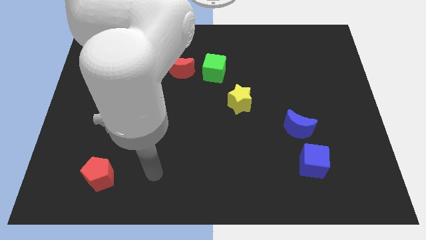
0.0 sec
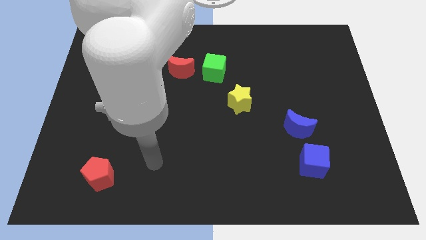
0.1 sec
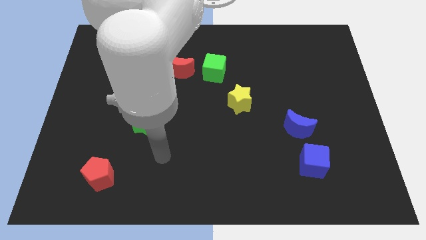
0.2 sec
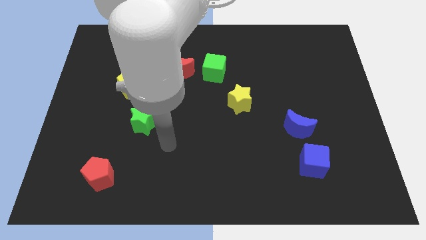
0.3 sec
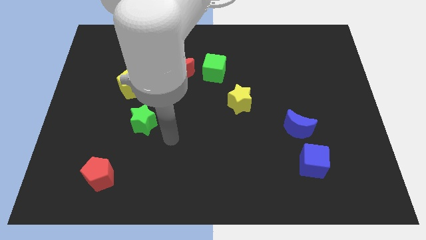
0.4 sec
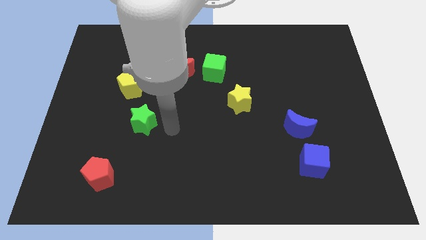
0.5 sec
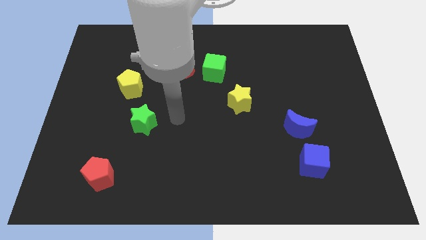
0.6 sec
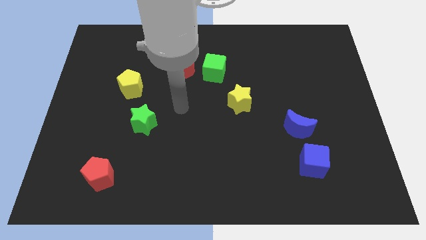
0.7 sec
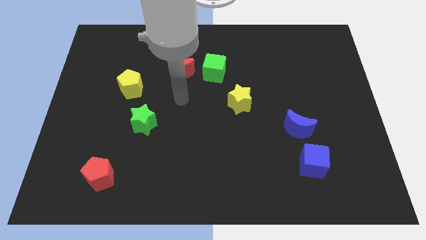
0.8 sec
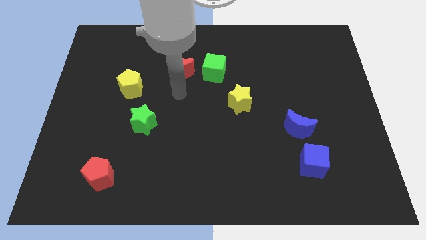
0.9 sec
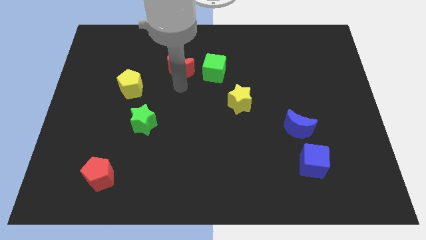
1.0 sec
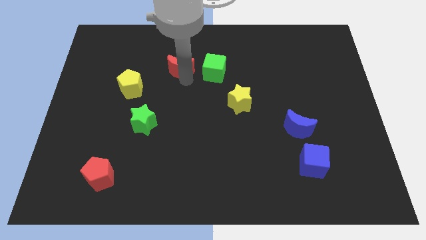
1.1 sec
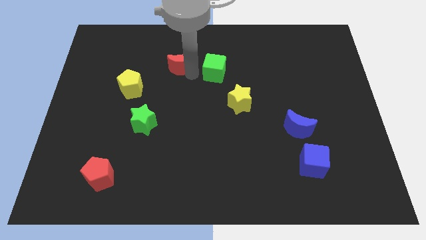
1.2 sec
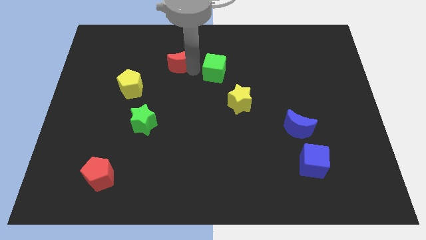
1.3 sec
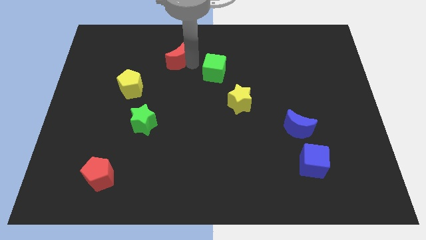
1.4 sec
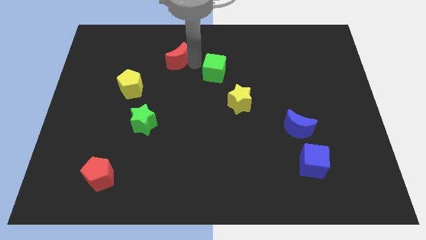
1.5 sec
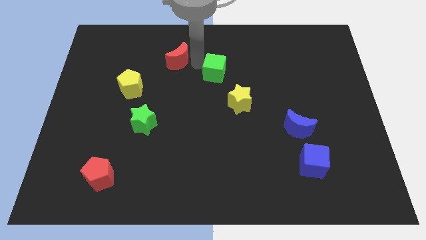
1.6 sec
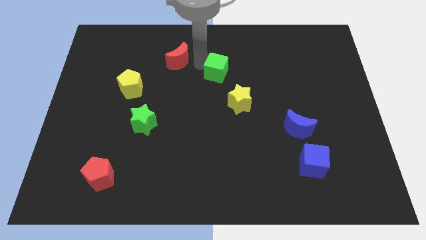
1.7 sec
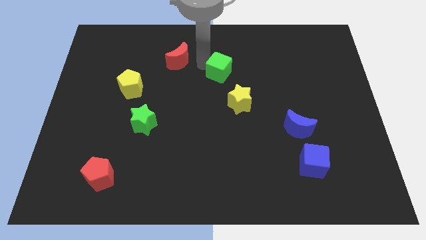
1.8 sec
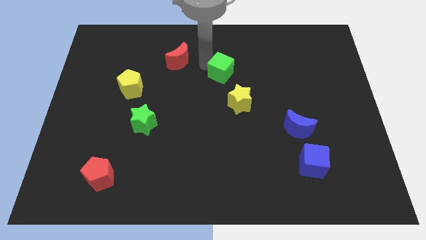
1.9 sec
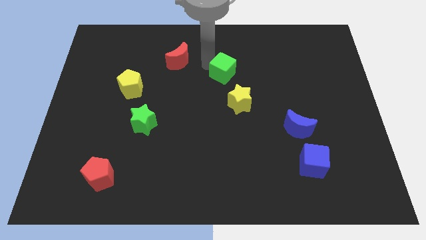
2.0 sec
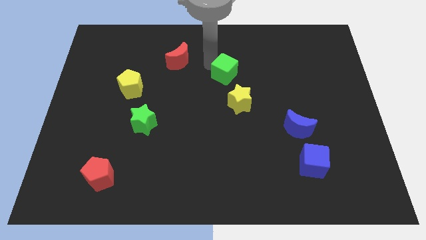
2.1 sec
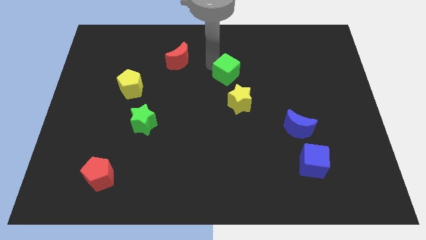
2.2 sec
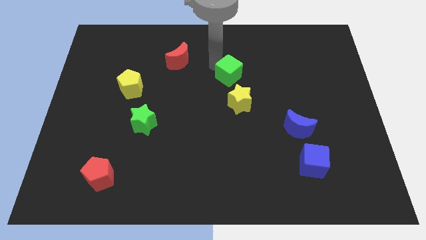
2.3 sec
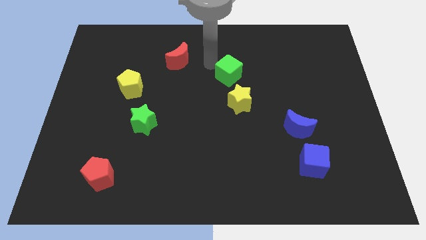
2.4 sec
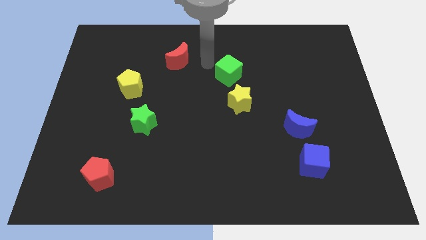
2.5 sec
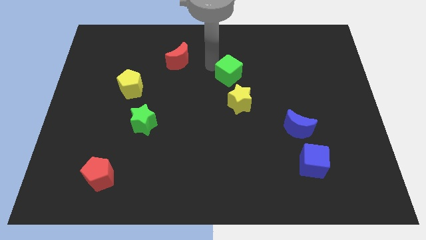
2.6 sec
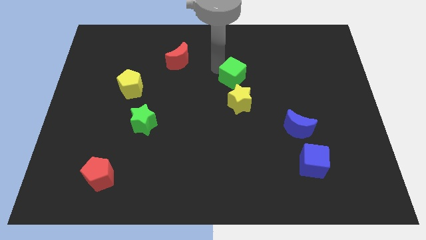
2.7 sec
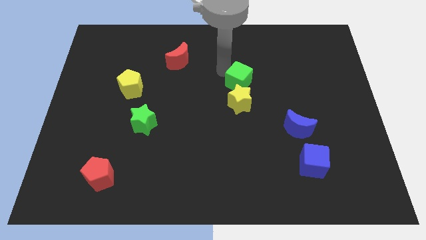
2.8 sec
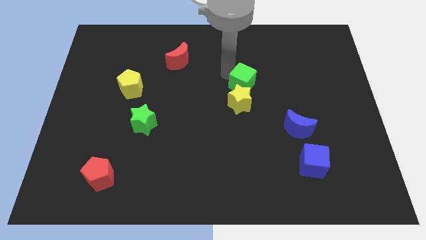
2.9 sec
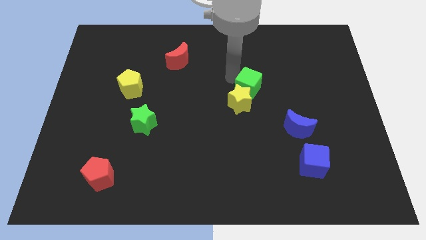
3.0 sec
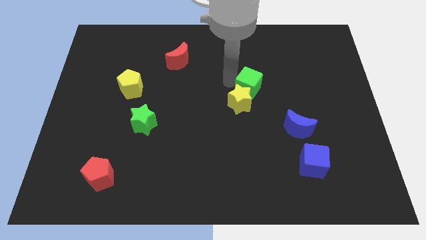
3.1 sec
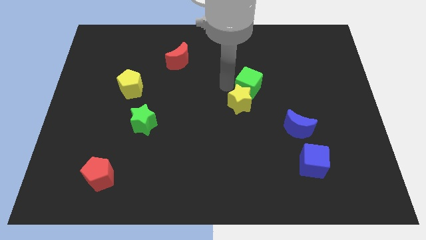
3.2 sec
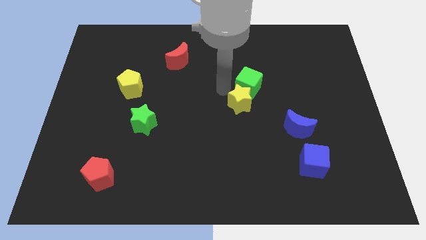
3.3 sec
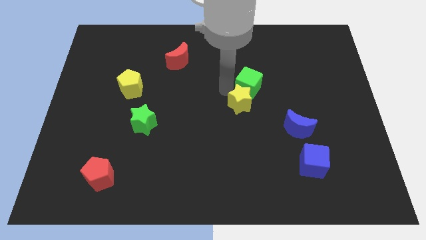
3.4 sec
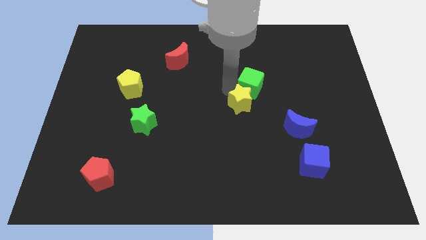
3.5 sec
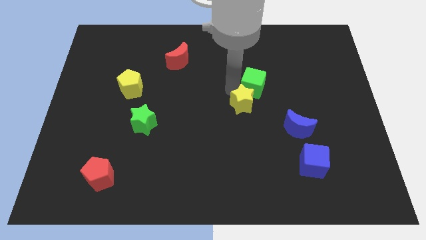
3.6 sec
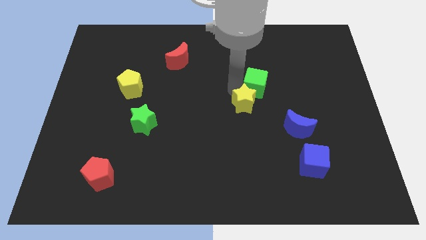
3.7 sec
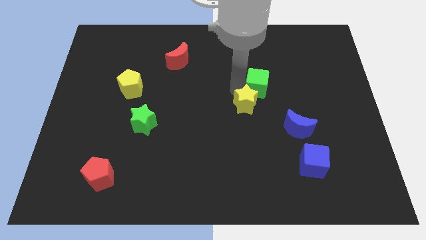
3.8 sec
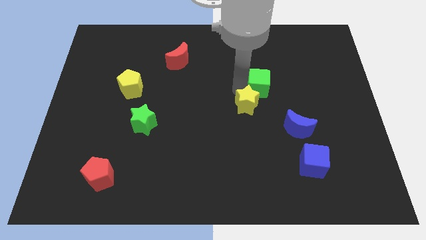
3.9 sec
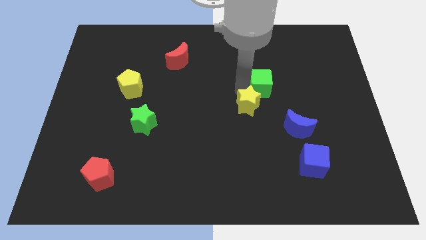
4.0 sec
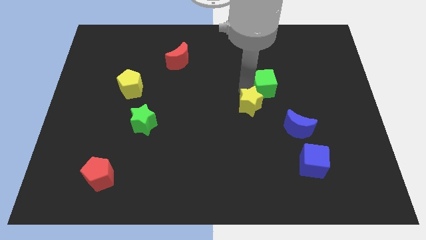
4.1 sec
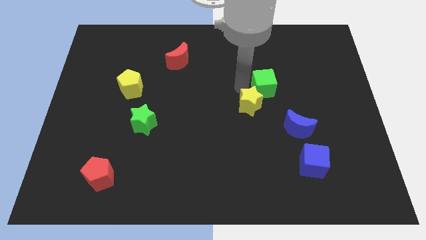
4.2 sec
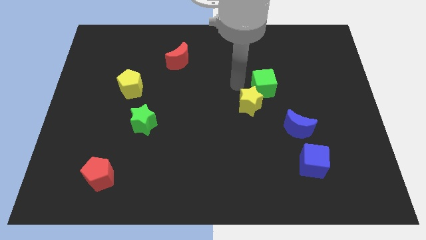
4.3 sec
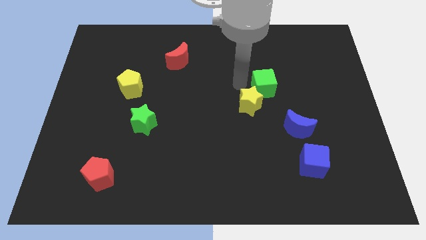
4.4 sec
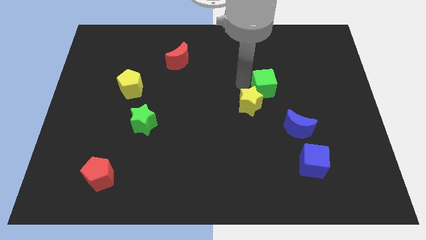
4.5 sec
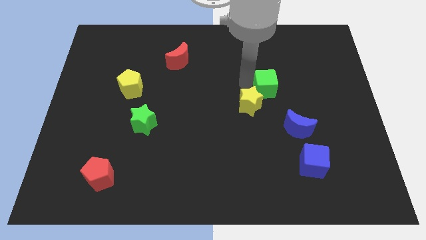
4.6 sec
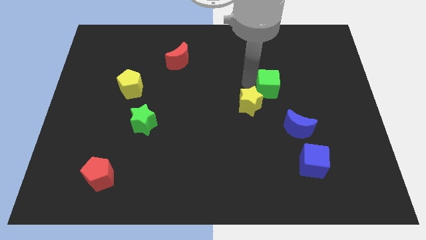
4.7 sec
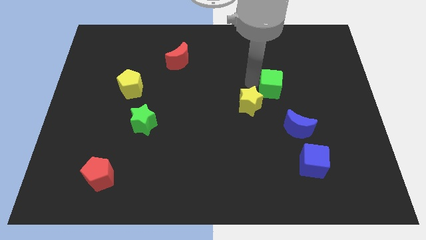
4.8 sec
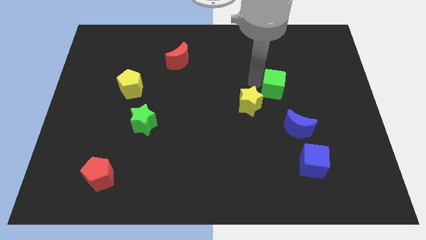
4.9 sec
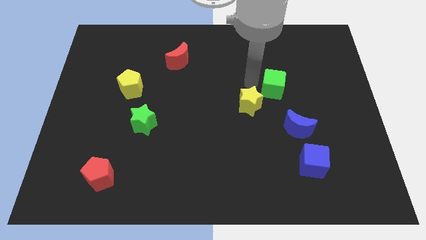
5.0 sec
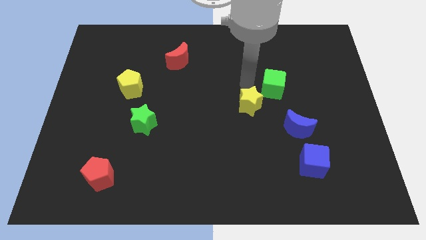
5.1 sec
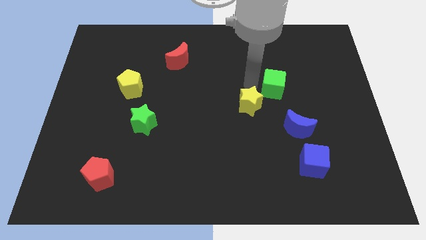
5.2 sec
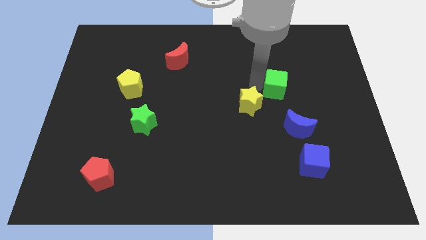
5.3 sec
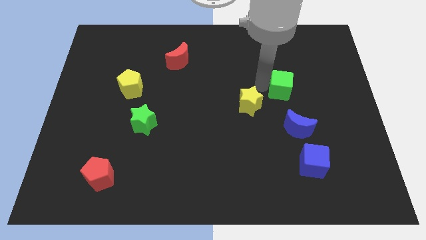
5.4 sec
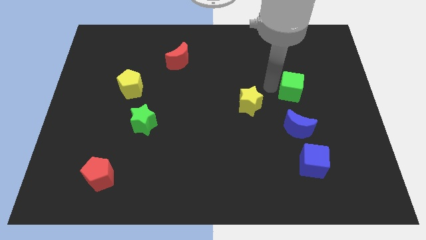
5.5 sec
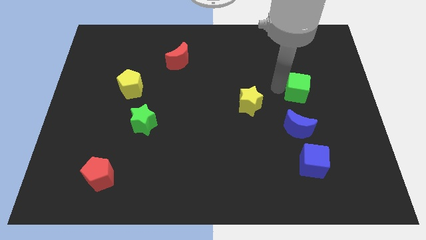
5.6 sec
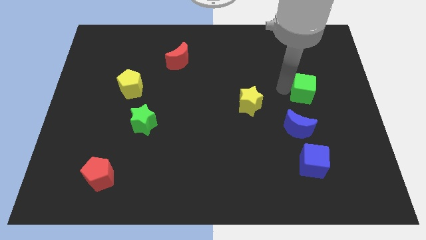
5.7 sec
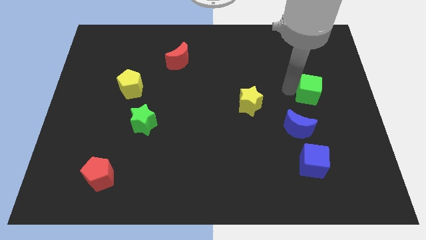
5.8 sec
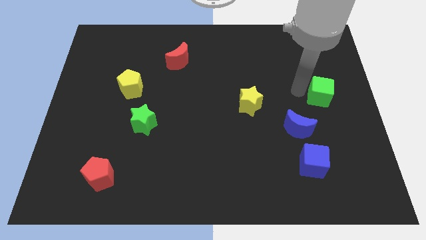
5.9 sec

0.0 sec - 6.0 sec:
push the green cube to the center right

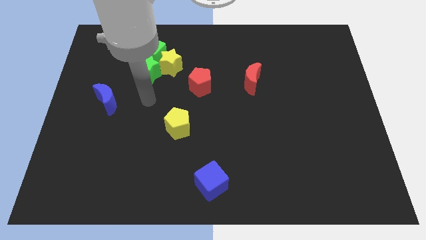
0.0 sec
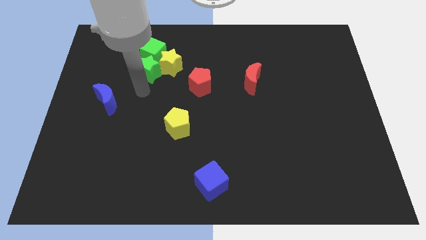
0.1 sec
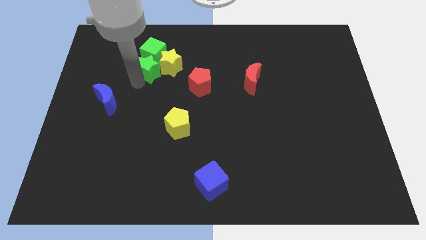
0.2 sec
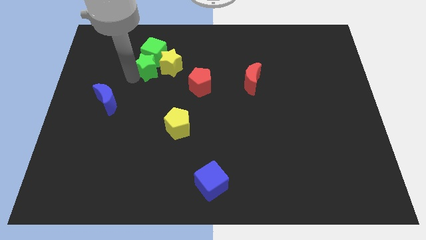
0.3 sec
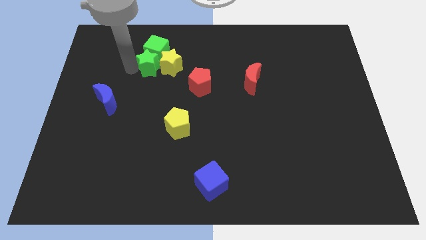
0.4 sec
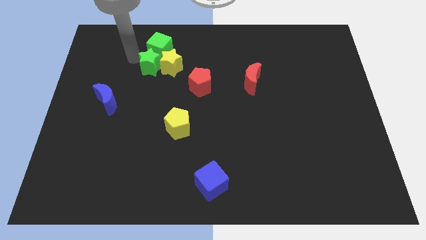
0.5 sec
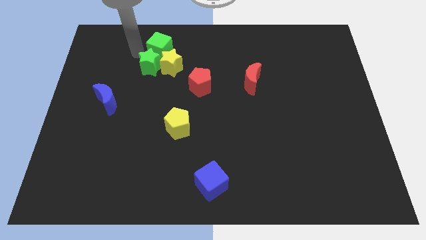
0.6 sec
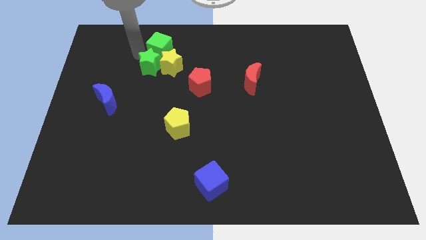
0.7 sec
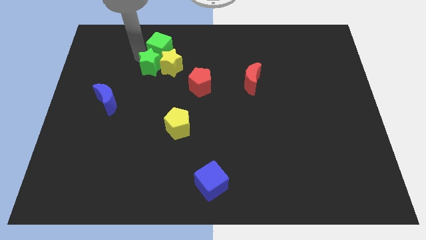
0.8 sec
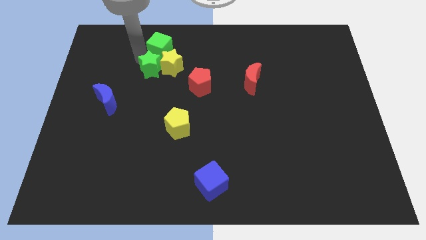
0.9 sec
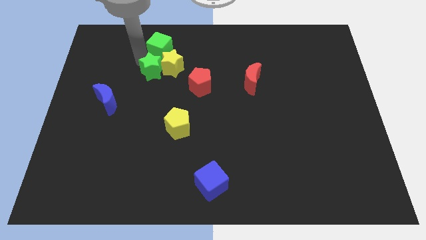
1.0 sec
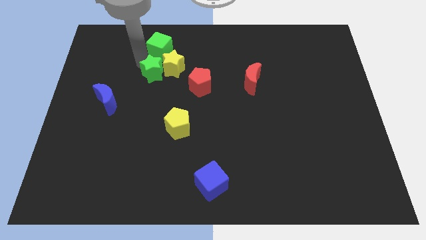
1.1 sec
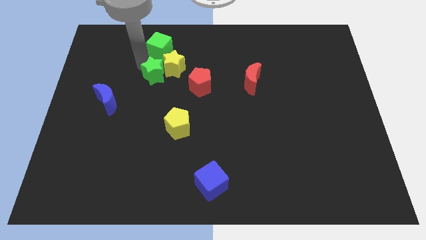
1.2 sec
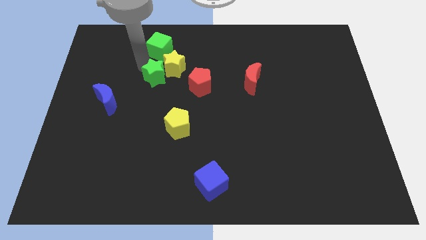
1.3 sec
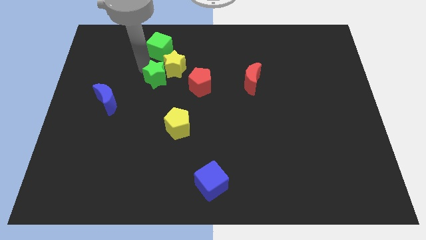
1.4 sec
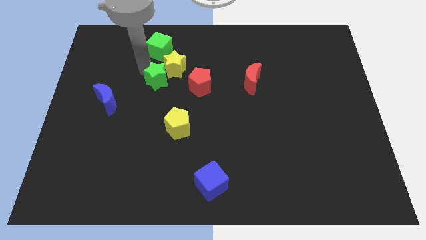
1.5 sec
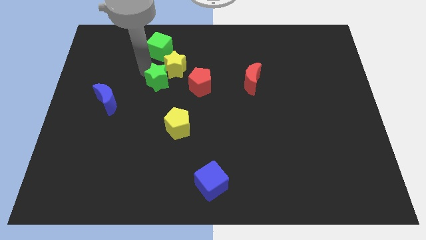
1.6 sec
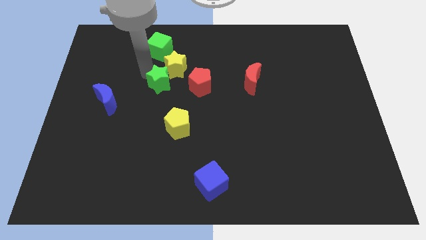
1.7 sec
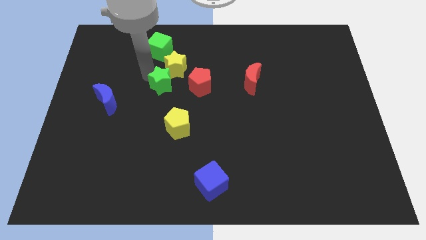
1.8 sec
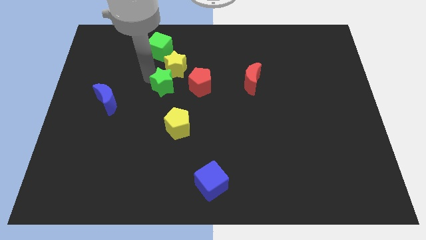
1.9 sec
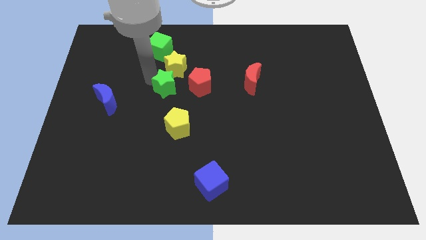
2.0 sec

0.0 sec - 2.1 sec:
put the green star to the middle
